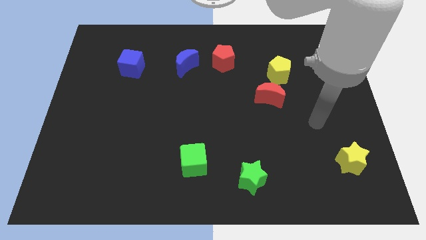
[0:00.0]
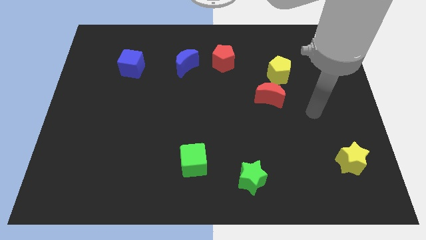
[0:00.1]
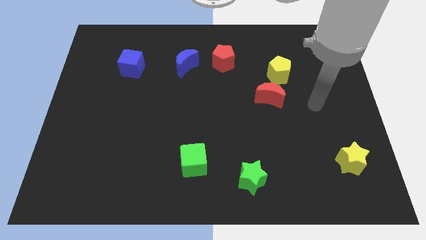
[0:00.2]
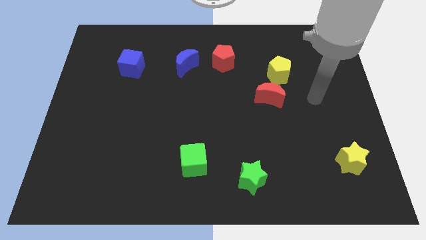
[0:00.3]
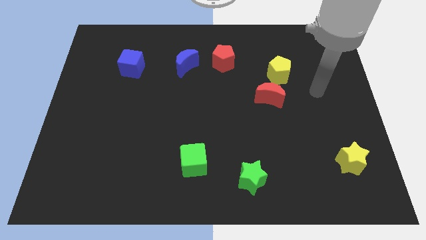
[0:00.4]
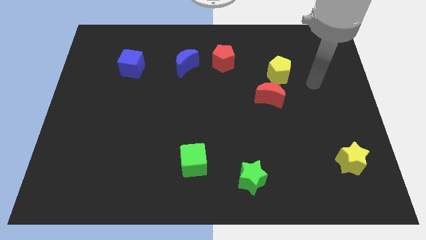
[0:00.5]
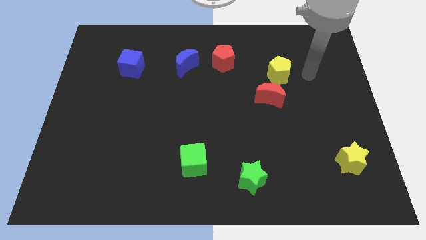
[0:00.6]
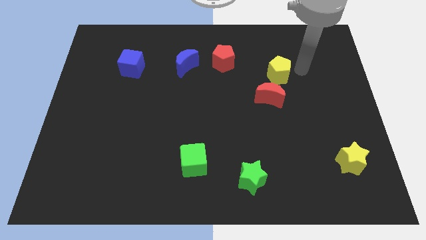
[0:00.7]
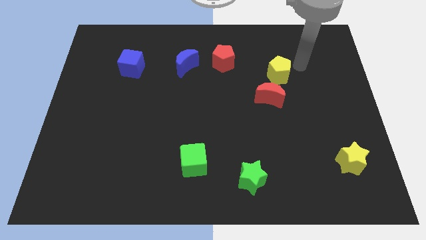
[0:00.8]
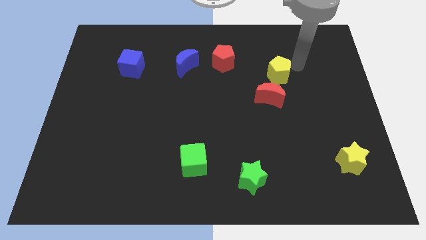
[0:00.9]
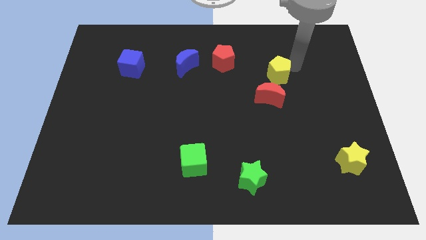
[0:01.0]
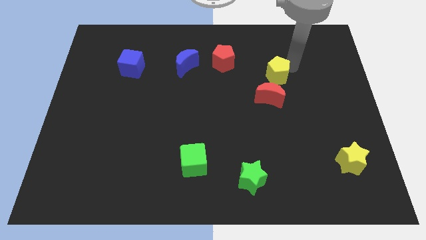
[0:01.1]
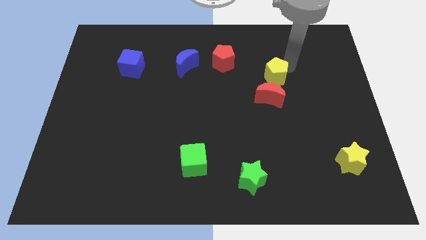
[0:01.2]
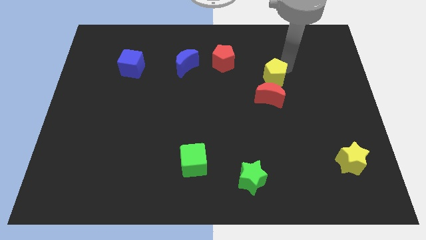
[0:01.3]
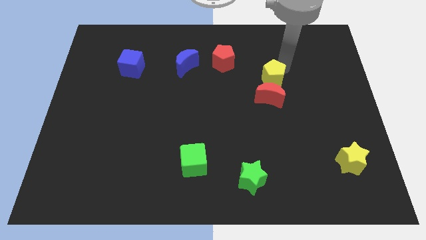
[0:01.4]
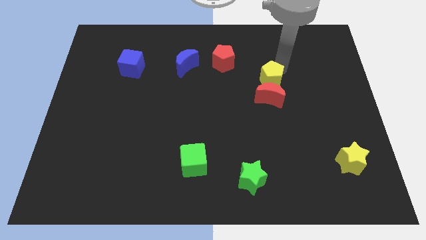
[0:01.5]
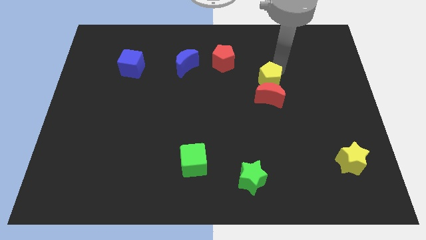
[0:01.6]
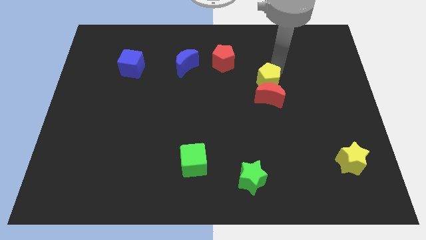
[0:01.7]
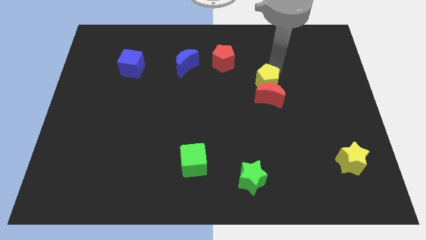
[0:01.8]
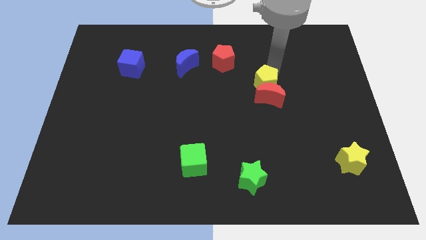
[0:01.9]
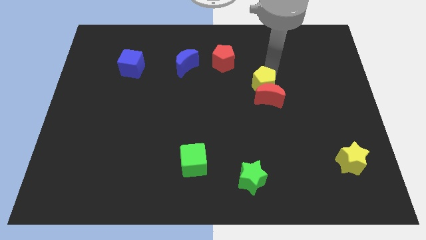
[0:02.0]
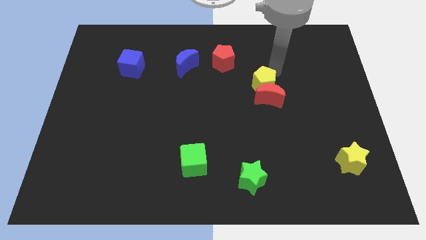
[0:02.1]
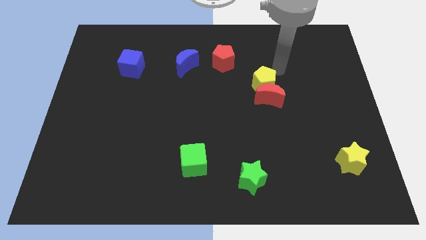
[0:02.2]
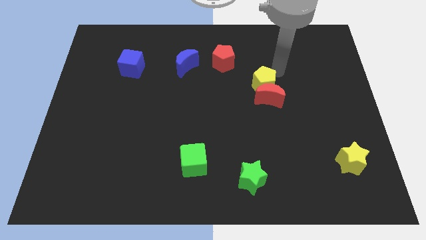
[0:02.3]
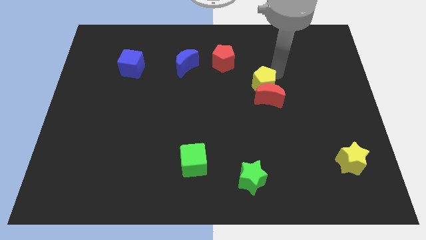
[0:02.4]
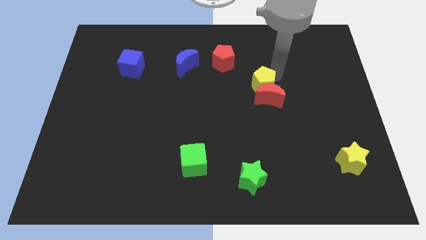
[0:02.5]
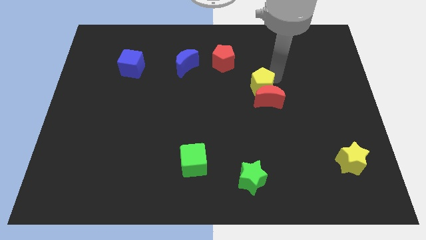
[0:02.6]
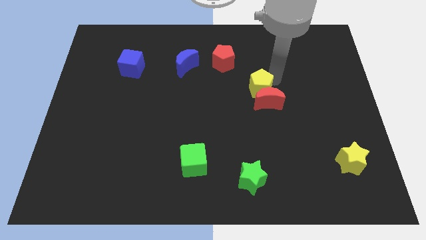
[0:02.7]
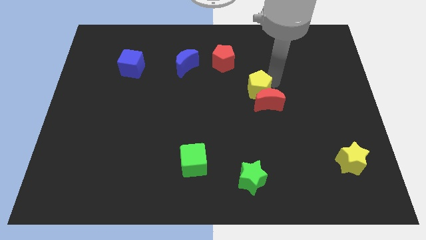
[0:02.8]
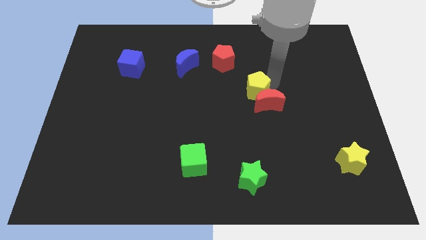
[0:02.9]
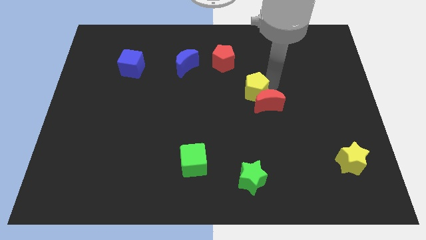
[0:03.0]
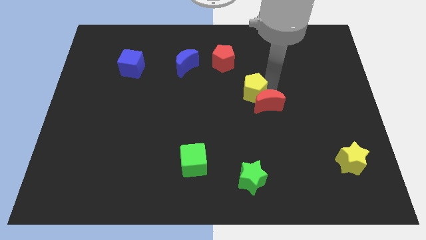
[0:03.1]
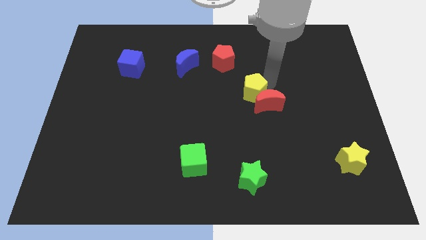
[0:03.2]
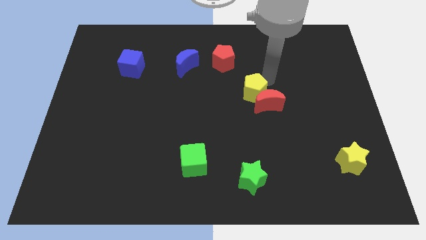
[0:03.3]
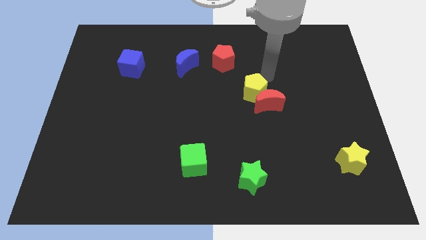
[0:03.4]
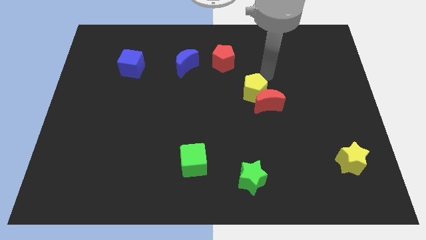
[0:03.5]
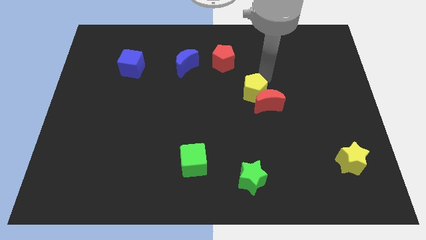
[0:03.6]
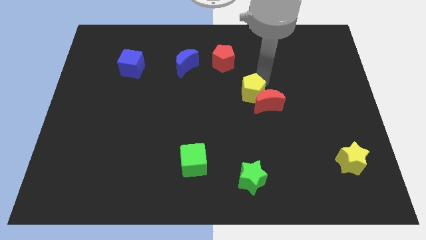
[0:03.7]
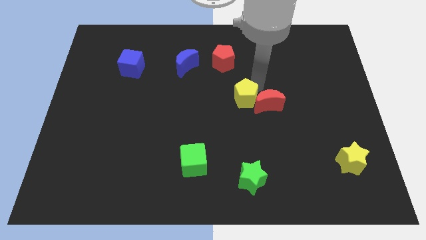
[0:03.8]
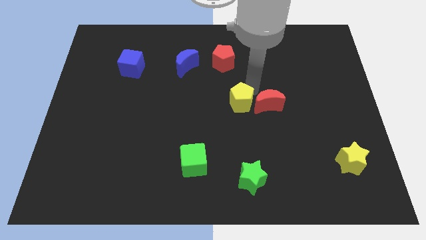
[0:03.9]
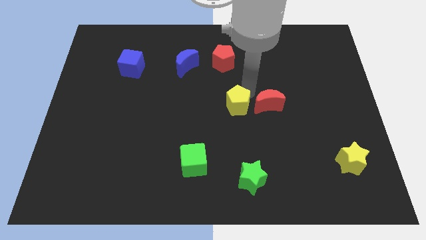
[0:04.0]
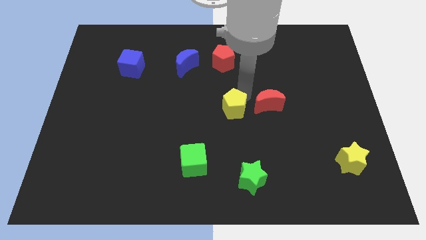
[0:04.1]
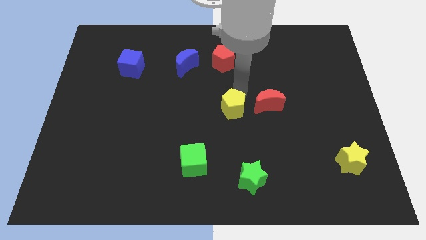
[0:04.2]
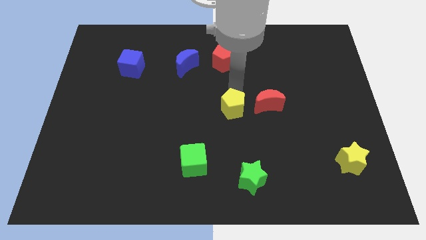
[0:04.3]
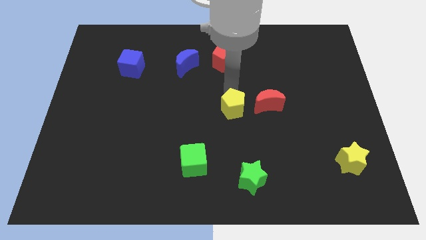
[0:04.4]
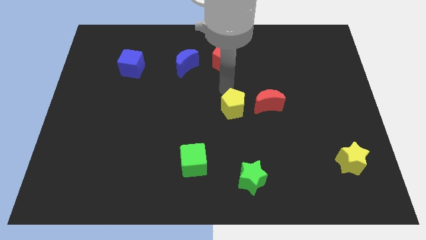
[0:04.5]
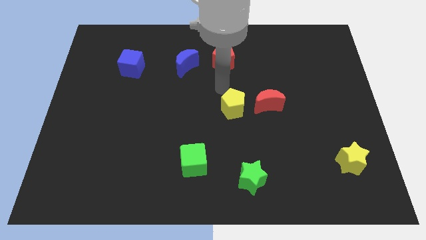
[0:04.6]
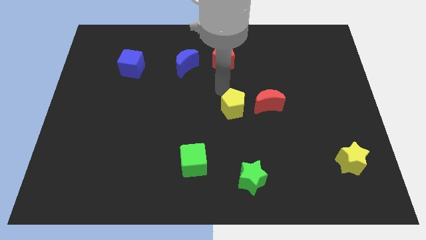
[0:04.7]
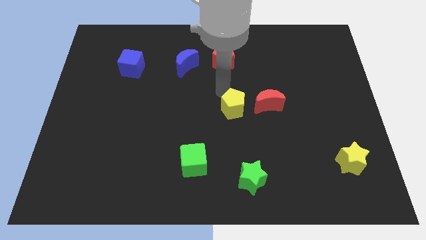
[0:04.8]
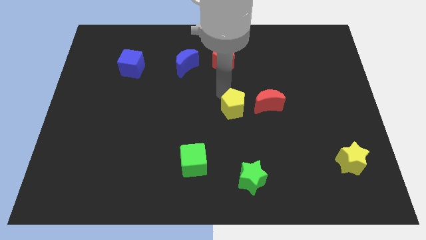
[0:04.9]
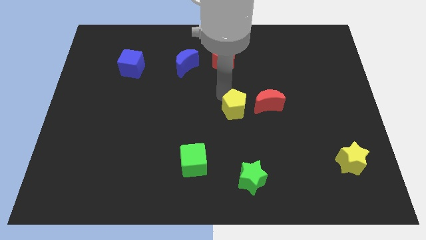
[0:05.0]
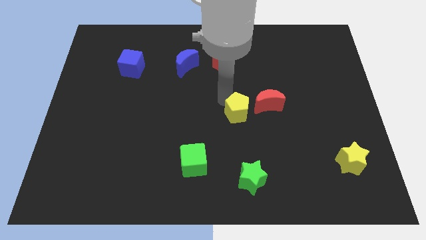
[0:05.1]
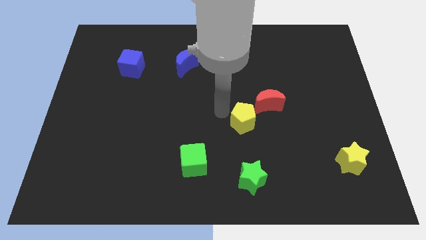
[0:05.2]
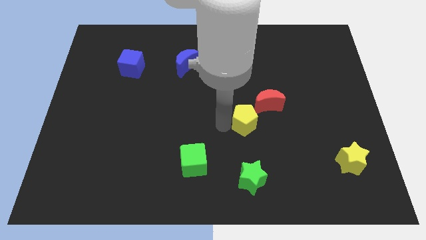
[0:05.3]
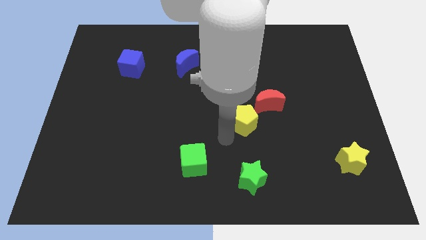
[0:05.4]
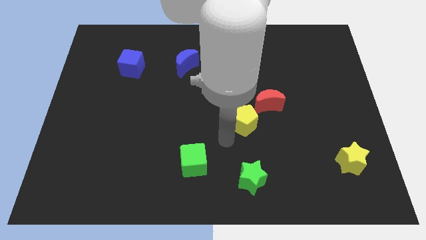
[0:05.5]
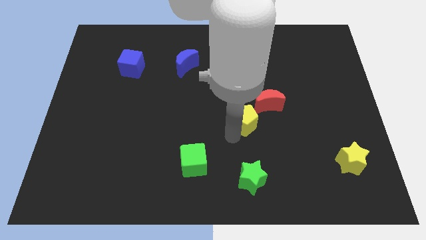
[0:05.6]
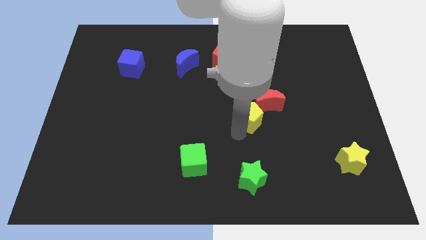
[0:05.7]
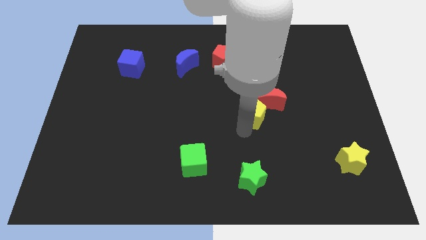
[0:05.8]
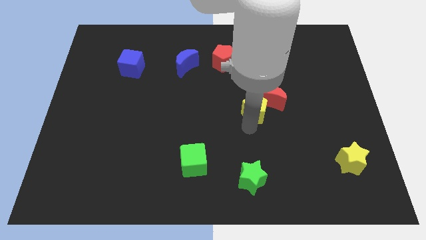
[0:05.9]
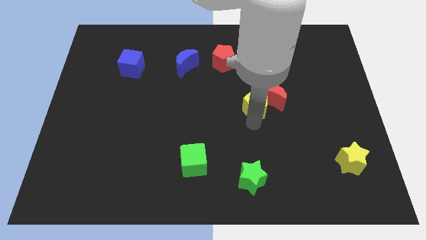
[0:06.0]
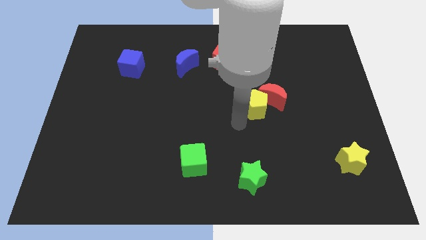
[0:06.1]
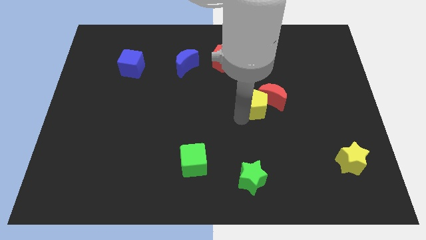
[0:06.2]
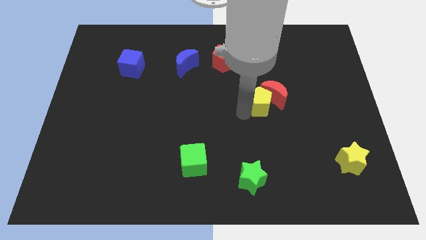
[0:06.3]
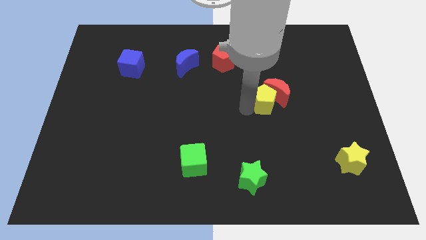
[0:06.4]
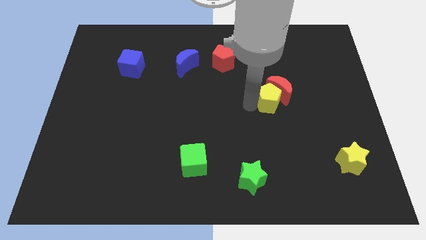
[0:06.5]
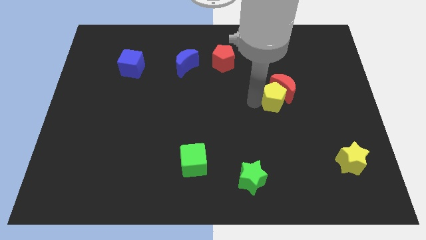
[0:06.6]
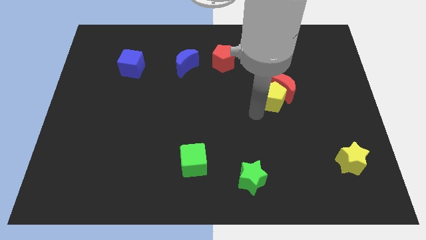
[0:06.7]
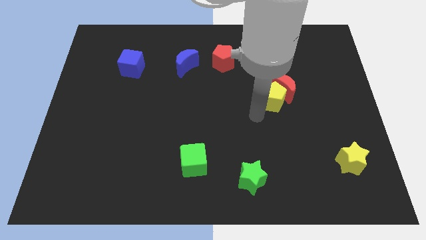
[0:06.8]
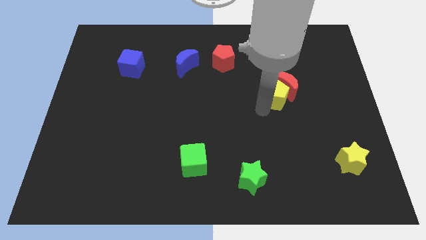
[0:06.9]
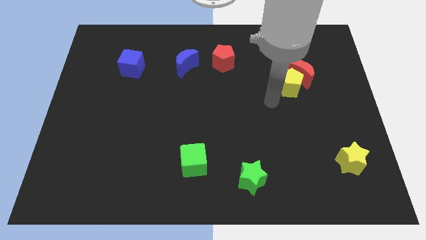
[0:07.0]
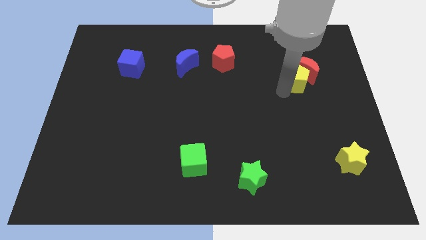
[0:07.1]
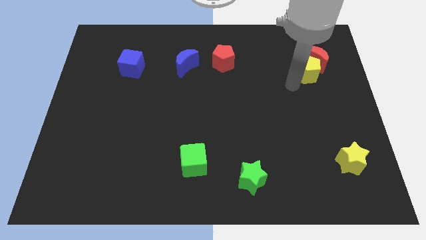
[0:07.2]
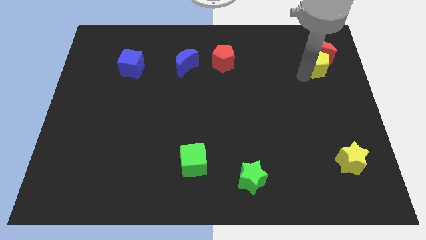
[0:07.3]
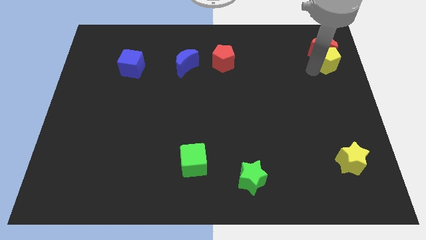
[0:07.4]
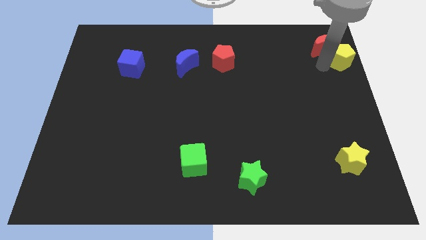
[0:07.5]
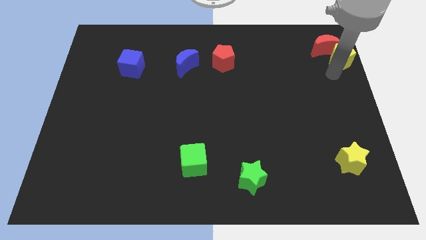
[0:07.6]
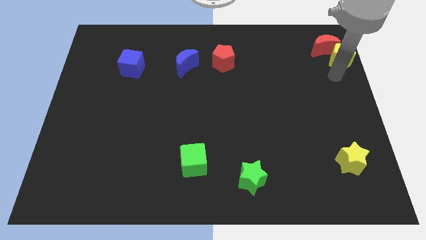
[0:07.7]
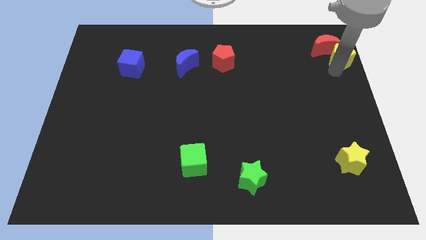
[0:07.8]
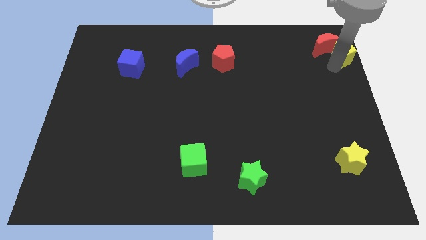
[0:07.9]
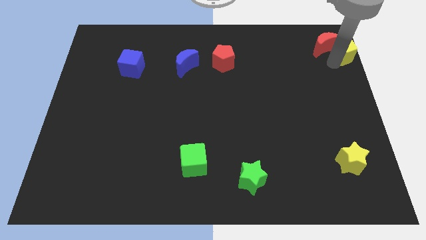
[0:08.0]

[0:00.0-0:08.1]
slide the yellow pentagon to the upper right corner
